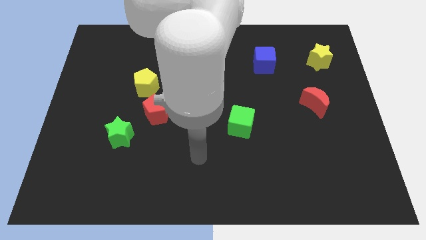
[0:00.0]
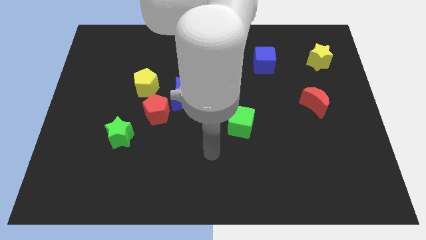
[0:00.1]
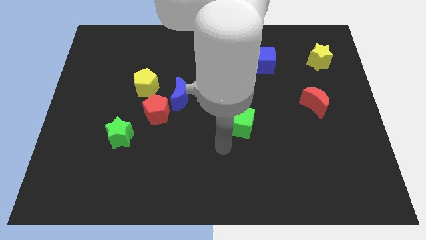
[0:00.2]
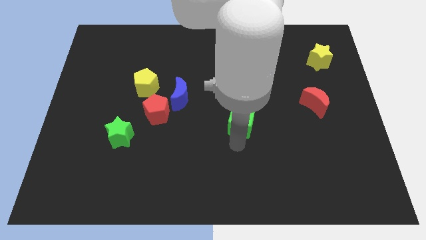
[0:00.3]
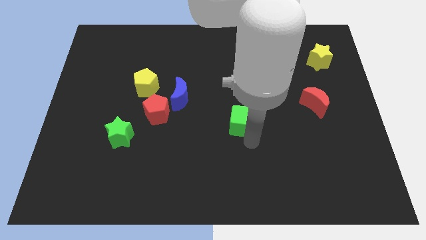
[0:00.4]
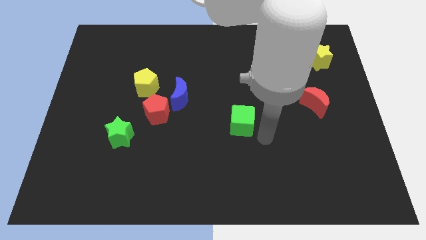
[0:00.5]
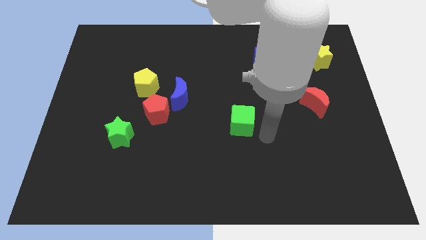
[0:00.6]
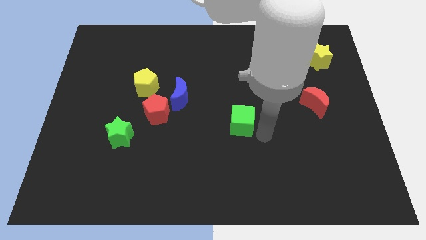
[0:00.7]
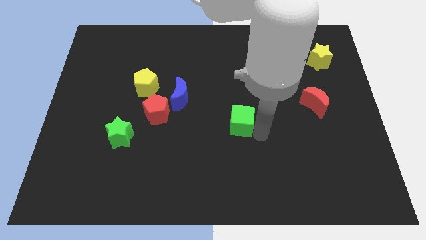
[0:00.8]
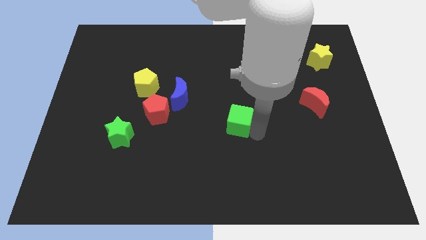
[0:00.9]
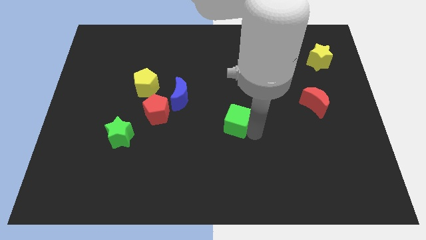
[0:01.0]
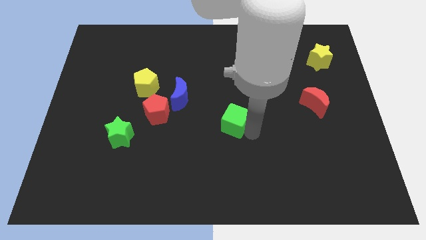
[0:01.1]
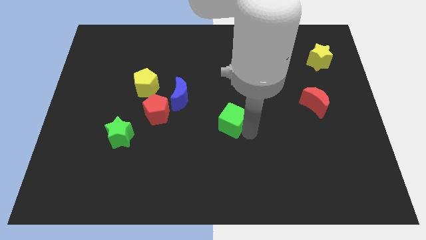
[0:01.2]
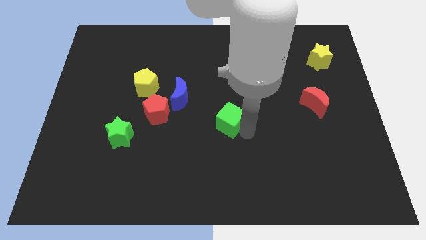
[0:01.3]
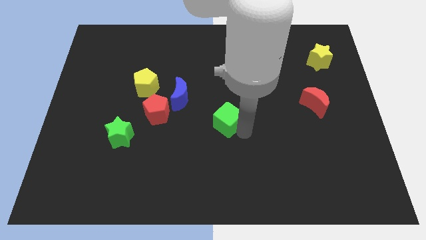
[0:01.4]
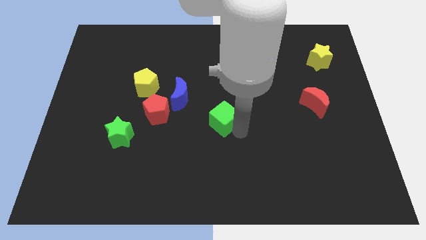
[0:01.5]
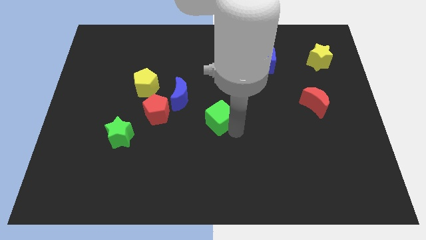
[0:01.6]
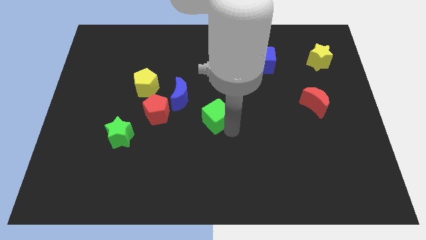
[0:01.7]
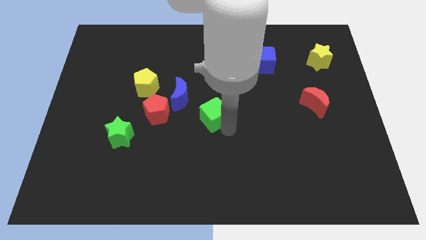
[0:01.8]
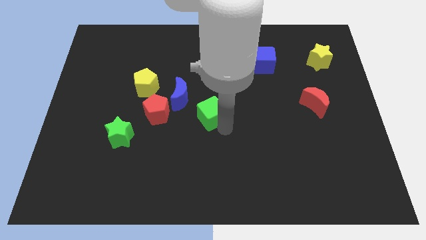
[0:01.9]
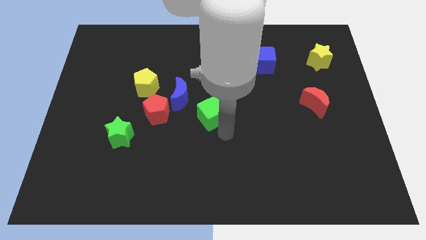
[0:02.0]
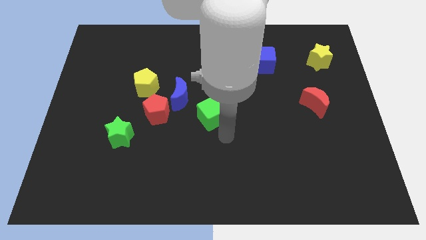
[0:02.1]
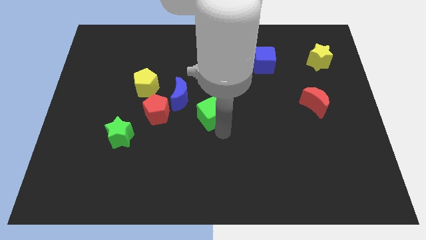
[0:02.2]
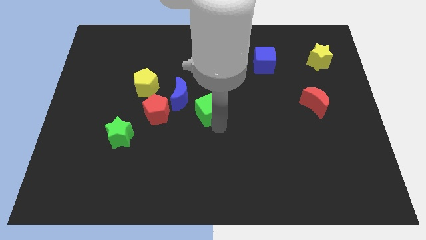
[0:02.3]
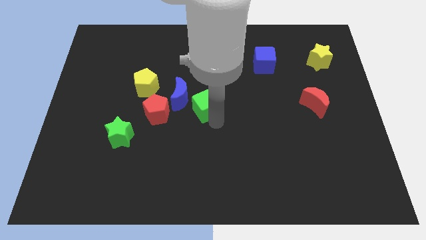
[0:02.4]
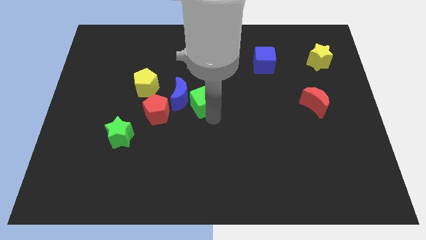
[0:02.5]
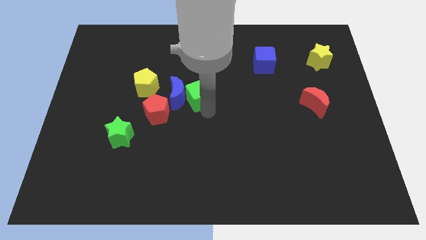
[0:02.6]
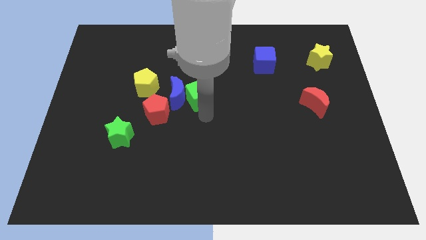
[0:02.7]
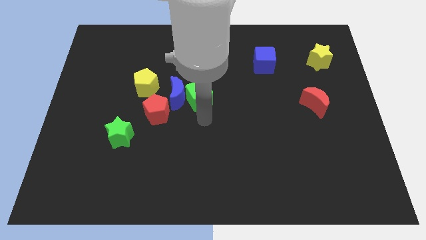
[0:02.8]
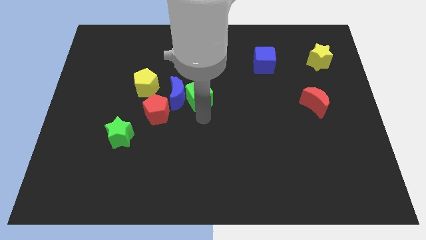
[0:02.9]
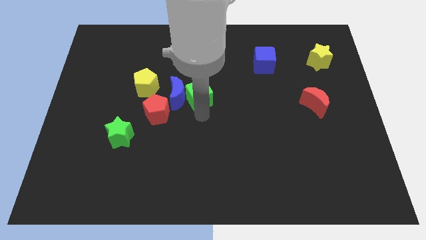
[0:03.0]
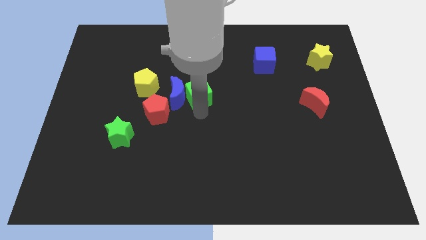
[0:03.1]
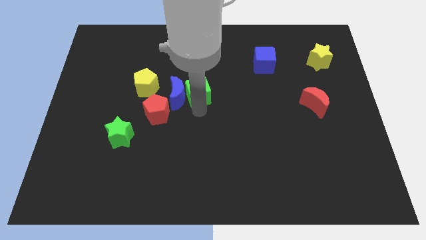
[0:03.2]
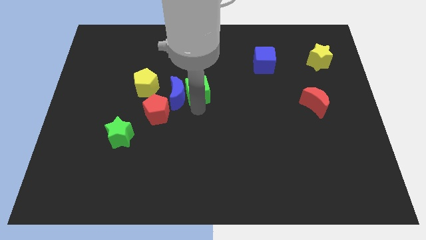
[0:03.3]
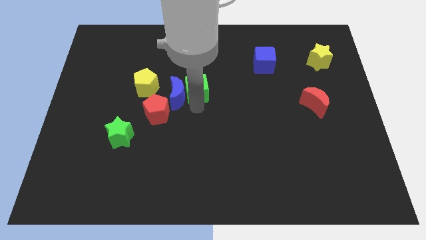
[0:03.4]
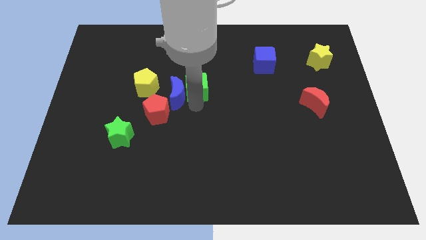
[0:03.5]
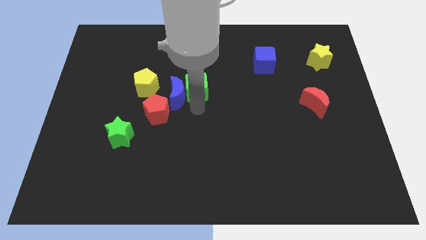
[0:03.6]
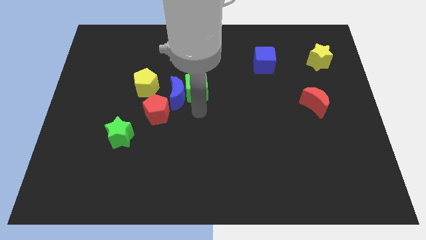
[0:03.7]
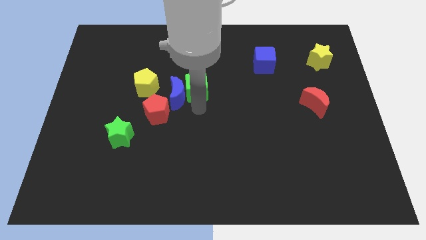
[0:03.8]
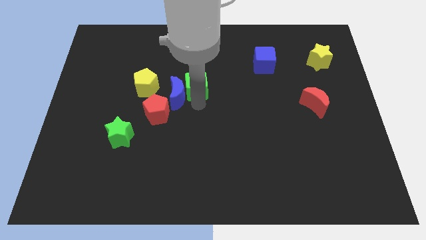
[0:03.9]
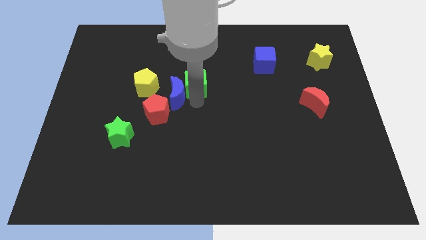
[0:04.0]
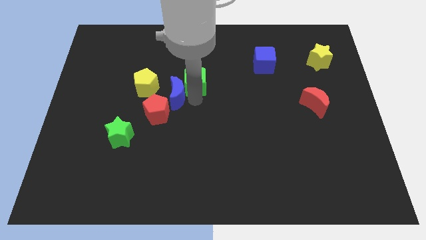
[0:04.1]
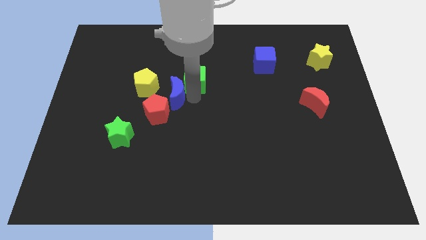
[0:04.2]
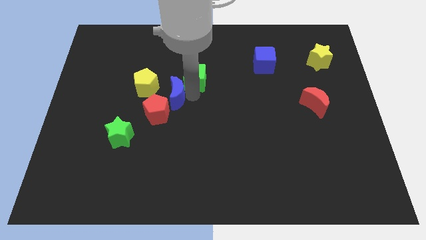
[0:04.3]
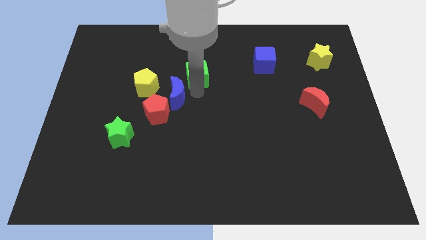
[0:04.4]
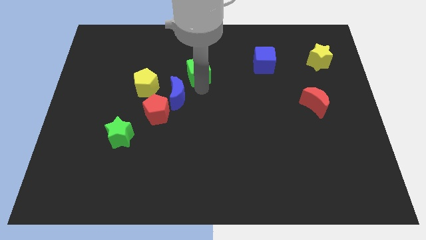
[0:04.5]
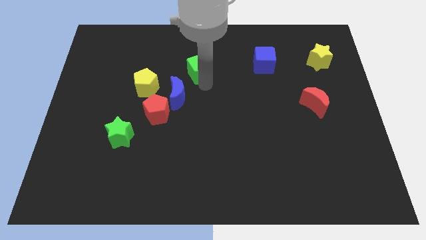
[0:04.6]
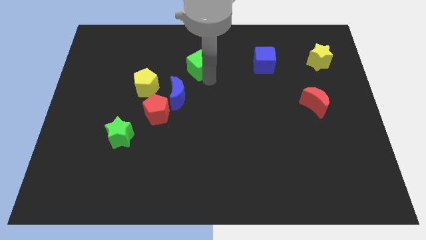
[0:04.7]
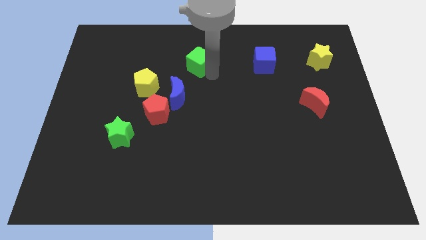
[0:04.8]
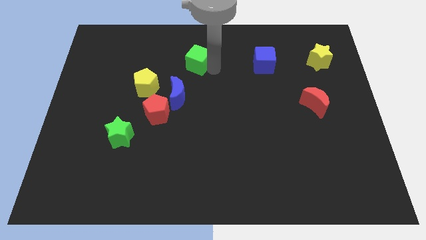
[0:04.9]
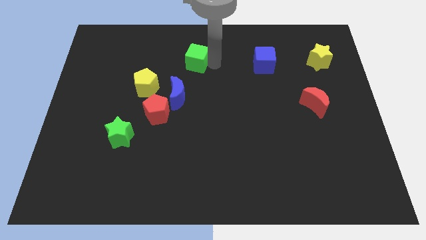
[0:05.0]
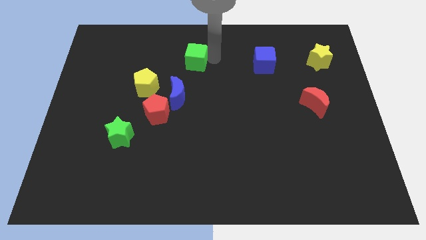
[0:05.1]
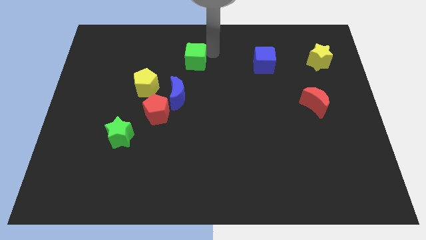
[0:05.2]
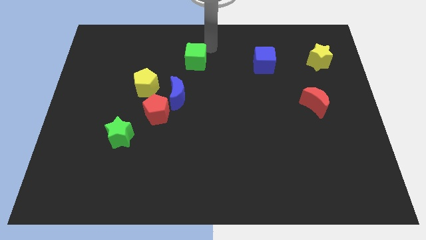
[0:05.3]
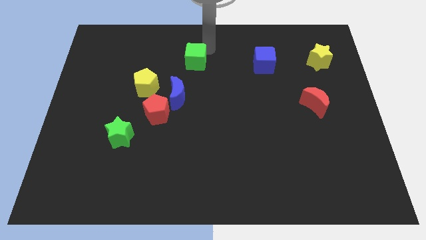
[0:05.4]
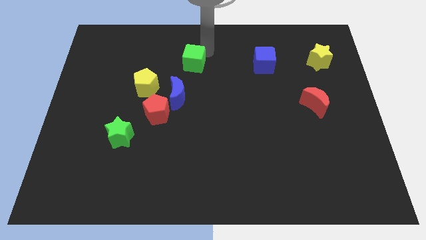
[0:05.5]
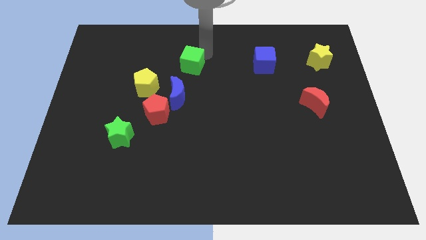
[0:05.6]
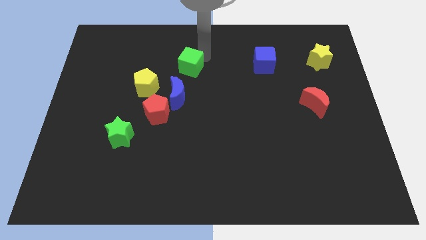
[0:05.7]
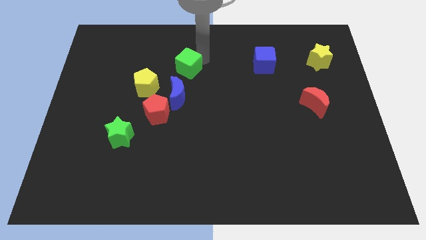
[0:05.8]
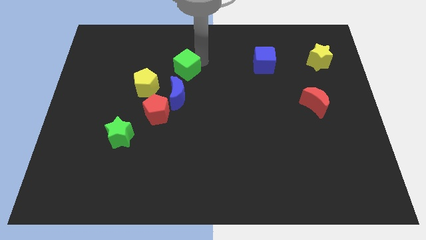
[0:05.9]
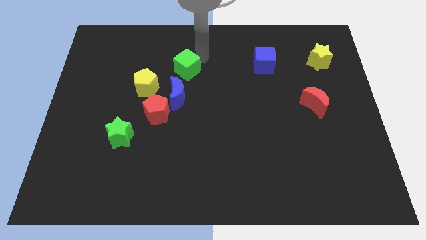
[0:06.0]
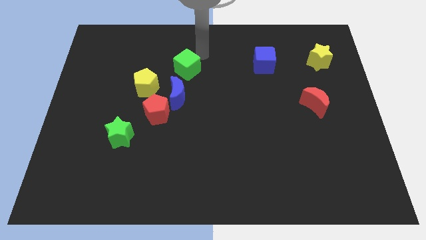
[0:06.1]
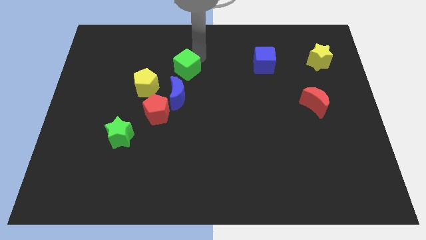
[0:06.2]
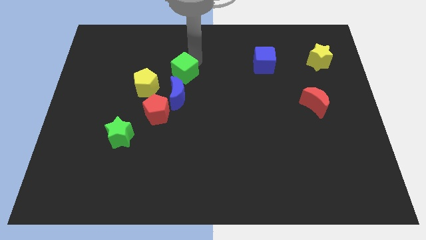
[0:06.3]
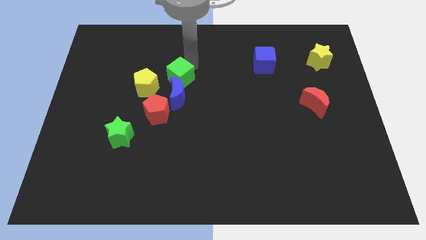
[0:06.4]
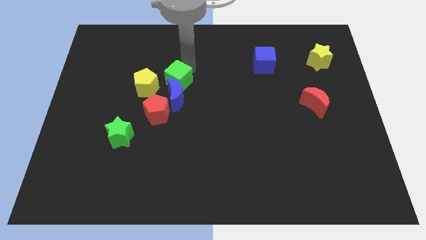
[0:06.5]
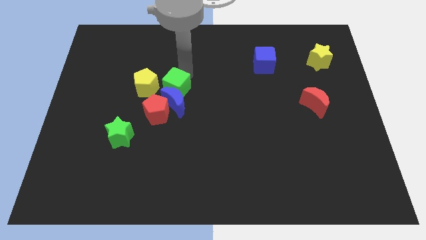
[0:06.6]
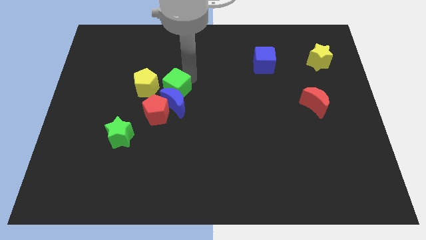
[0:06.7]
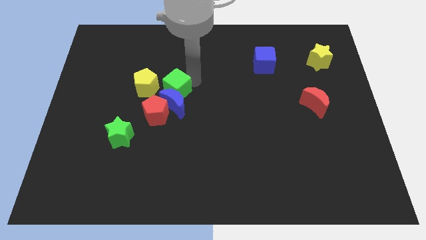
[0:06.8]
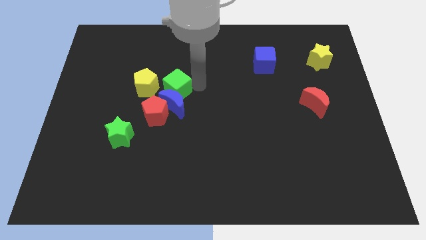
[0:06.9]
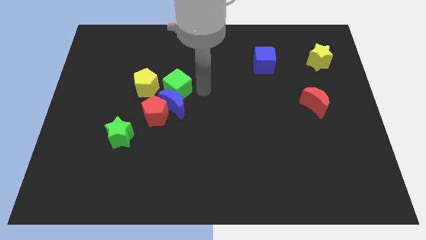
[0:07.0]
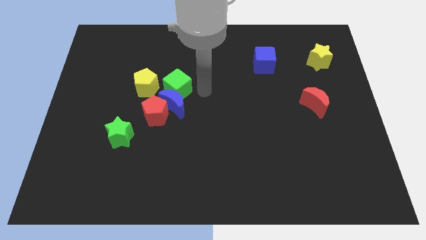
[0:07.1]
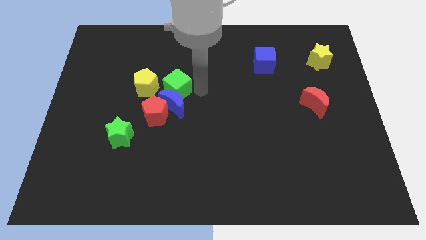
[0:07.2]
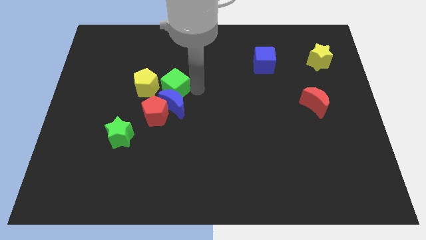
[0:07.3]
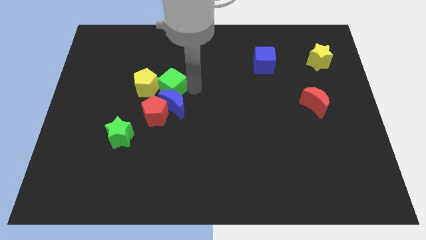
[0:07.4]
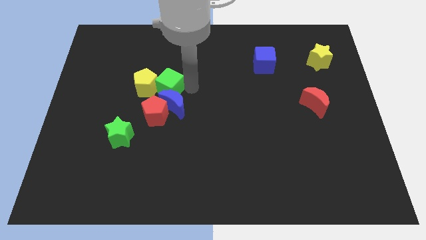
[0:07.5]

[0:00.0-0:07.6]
put the green cube close to the yellow pentagon
